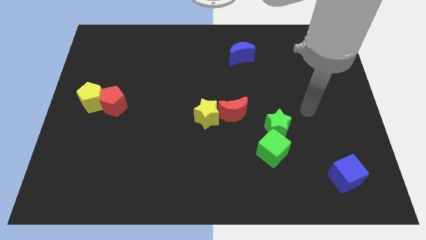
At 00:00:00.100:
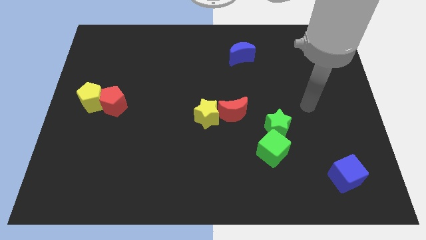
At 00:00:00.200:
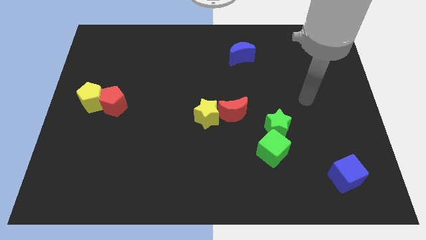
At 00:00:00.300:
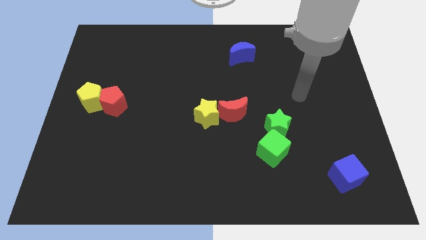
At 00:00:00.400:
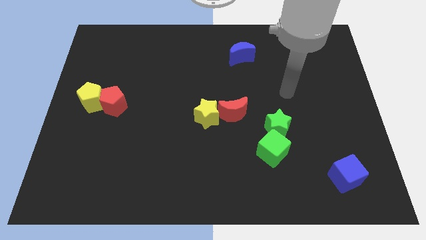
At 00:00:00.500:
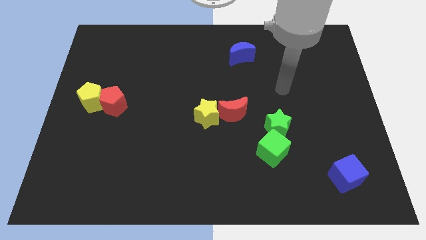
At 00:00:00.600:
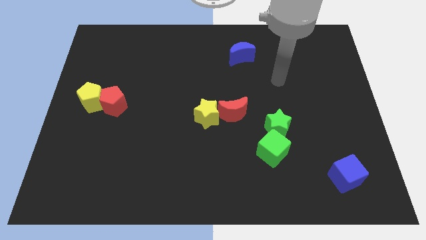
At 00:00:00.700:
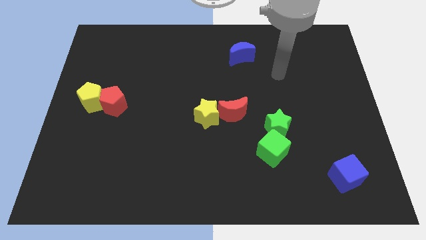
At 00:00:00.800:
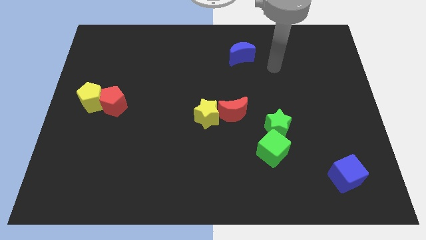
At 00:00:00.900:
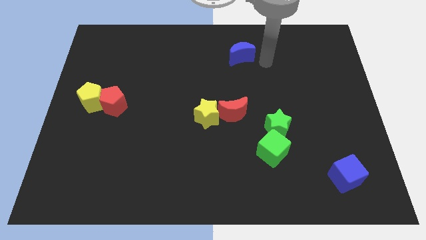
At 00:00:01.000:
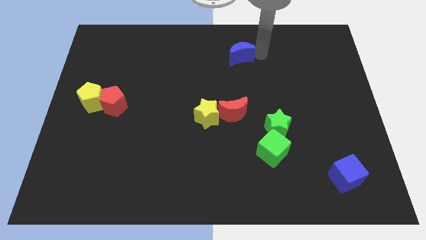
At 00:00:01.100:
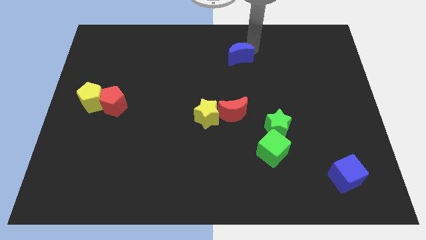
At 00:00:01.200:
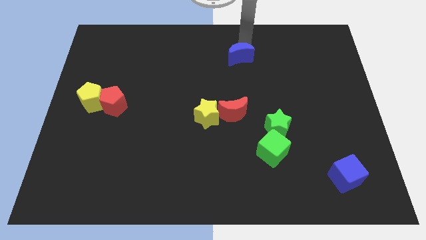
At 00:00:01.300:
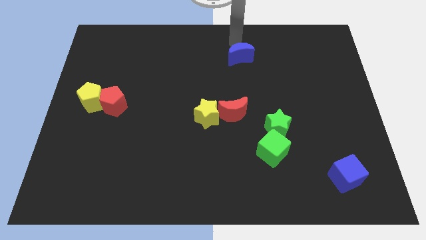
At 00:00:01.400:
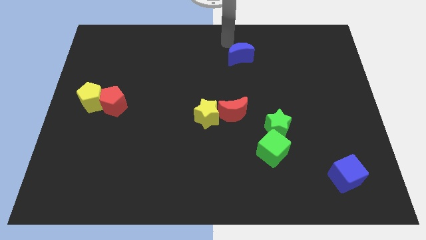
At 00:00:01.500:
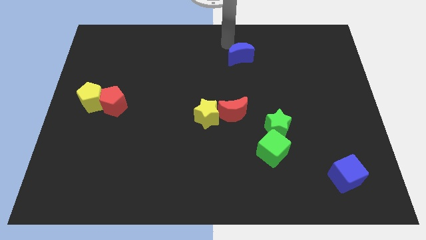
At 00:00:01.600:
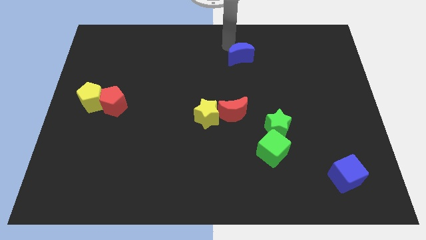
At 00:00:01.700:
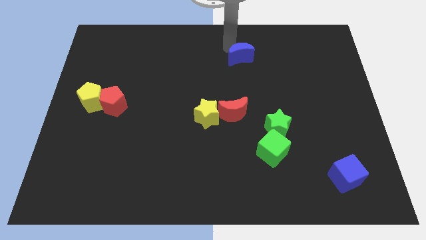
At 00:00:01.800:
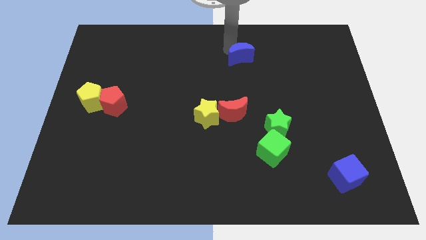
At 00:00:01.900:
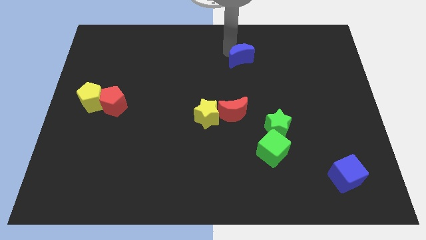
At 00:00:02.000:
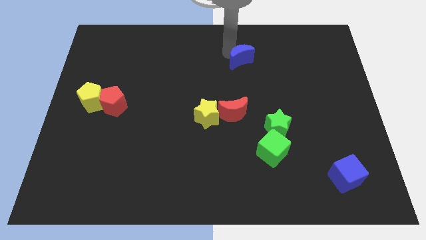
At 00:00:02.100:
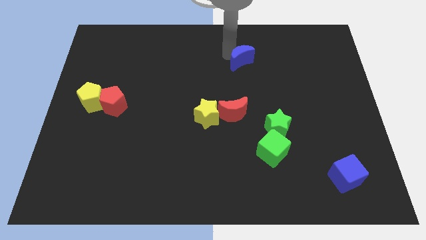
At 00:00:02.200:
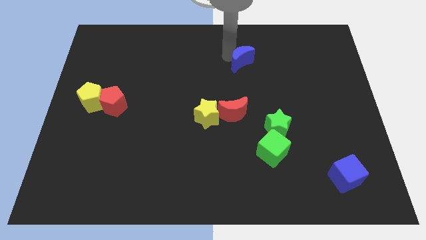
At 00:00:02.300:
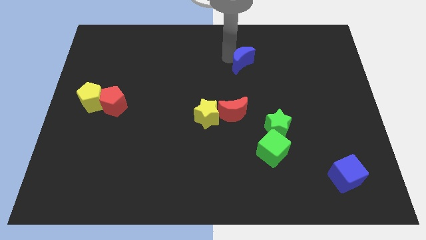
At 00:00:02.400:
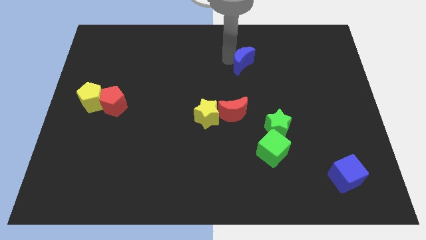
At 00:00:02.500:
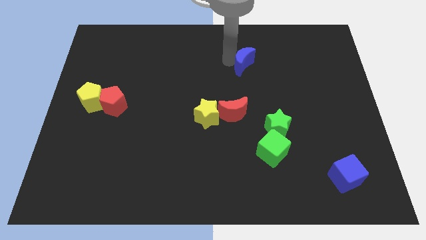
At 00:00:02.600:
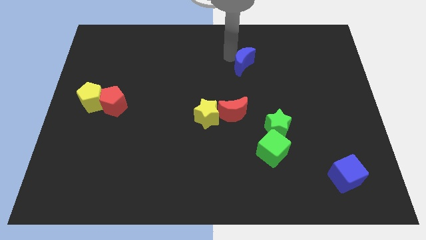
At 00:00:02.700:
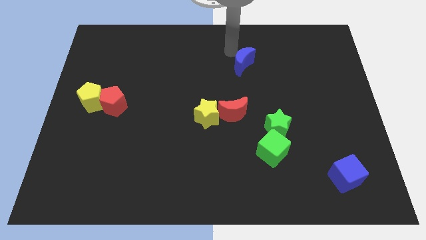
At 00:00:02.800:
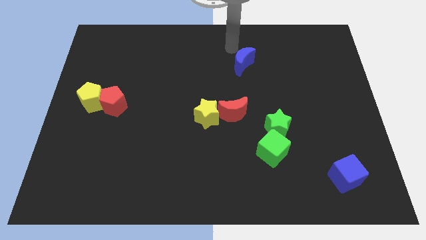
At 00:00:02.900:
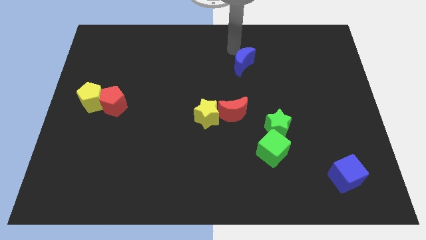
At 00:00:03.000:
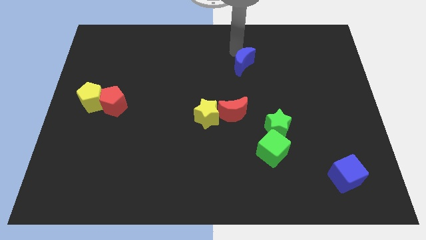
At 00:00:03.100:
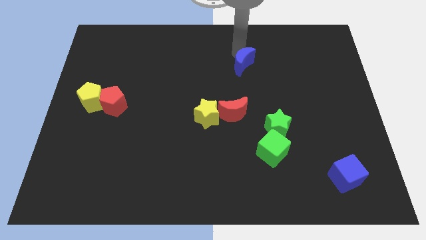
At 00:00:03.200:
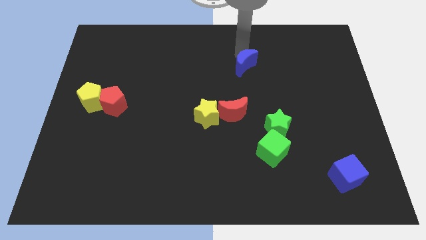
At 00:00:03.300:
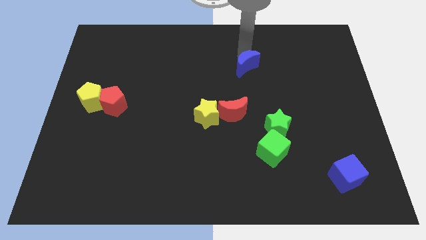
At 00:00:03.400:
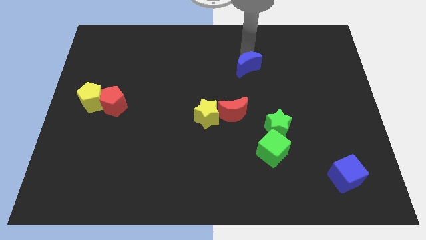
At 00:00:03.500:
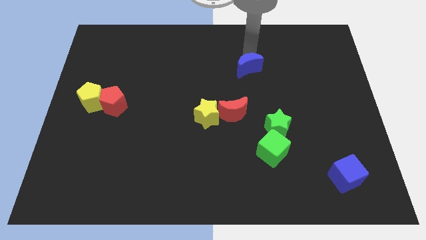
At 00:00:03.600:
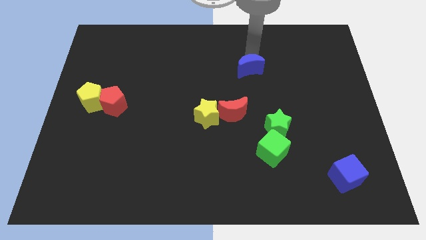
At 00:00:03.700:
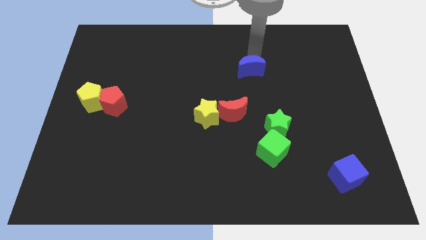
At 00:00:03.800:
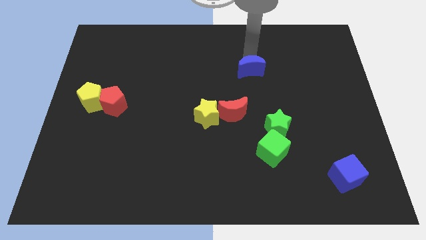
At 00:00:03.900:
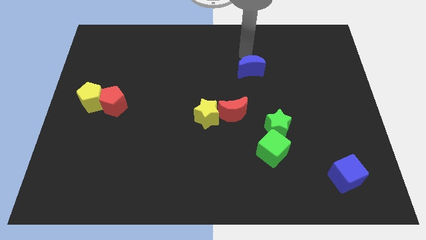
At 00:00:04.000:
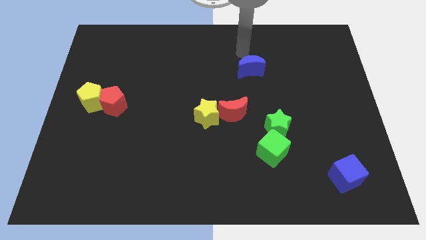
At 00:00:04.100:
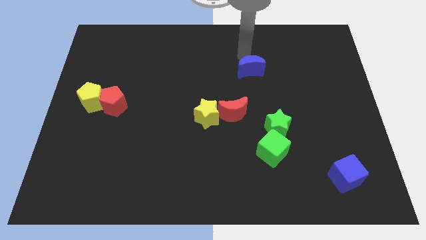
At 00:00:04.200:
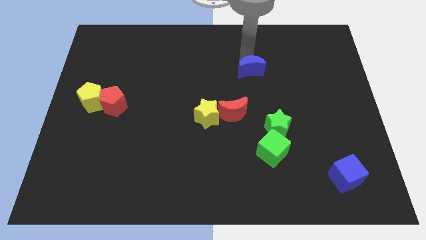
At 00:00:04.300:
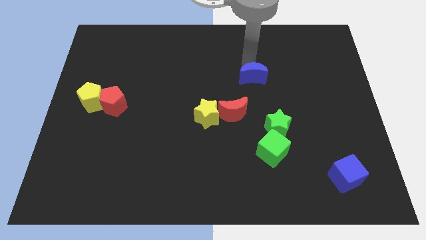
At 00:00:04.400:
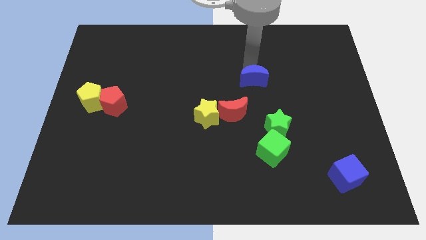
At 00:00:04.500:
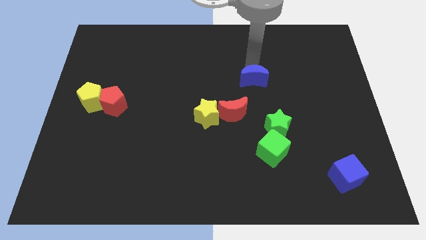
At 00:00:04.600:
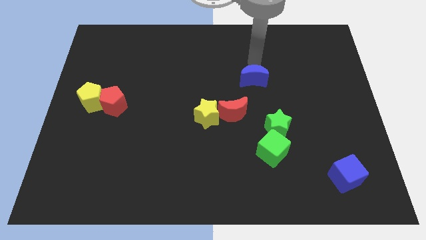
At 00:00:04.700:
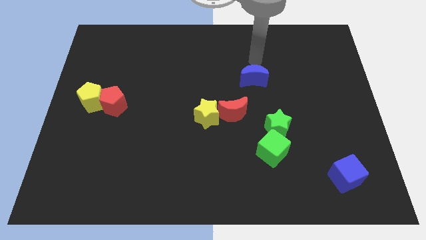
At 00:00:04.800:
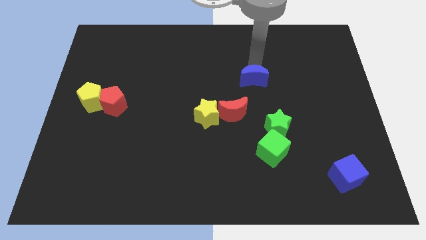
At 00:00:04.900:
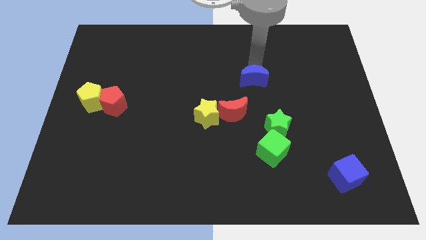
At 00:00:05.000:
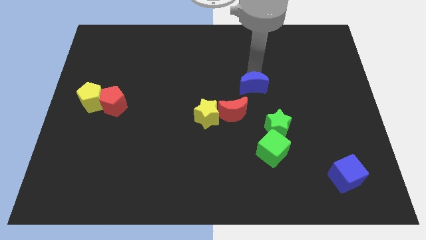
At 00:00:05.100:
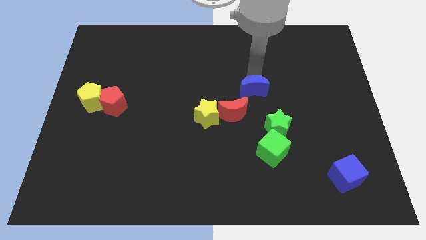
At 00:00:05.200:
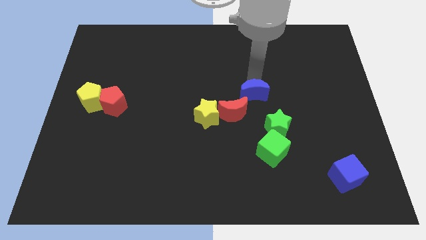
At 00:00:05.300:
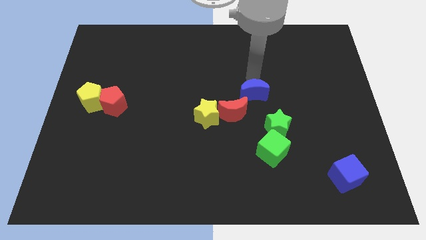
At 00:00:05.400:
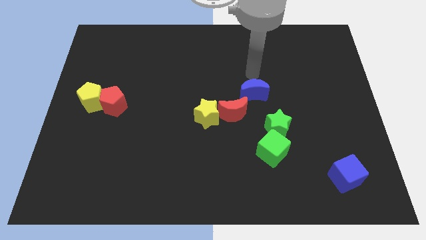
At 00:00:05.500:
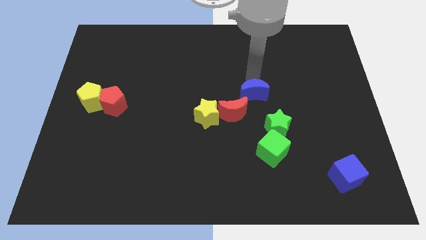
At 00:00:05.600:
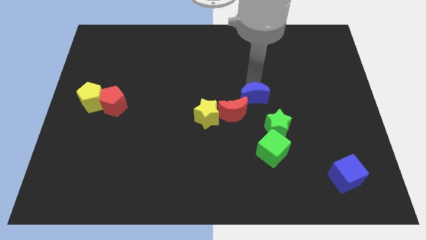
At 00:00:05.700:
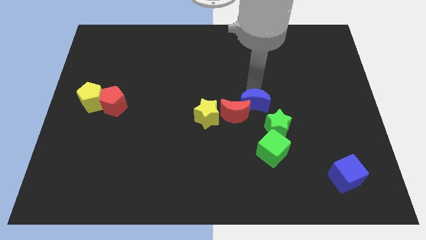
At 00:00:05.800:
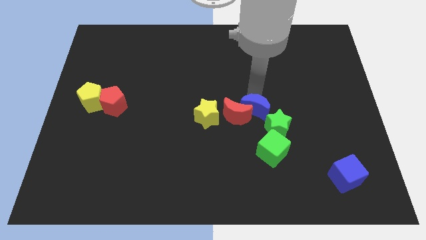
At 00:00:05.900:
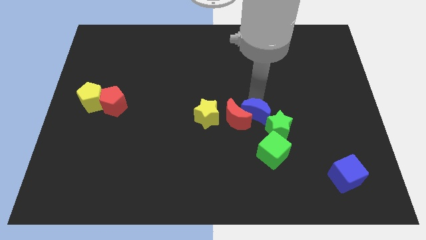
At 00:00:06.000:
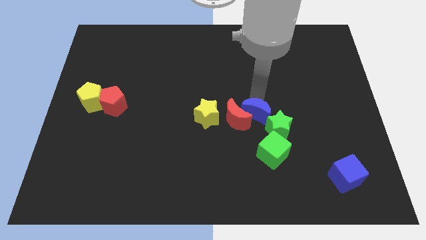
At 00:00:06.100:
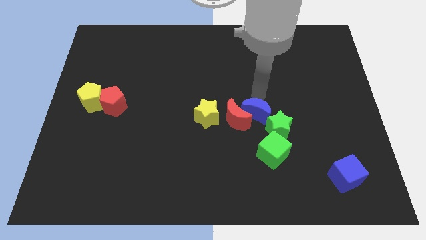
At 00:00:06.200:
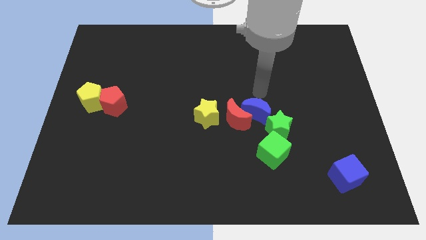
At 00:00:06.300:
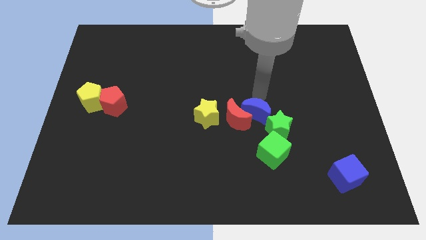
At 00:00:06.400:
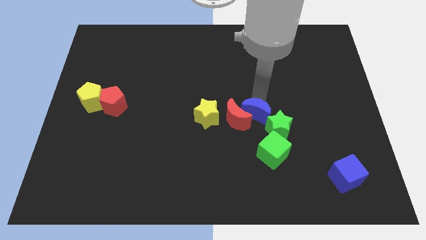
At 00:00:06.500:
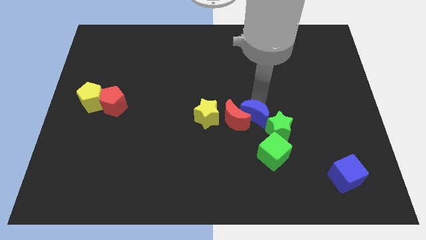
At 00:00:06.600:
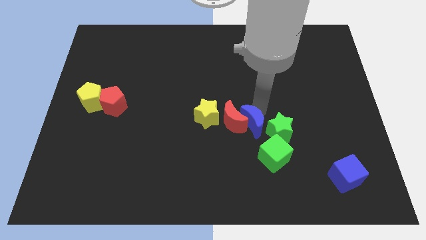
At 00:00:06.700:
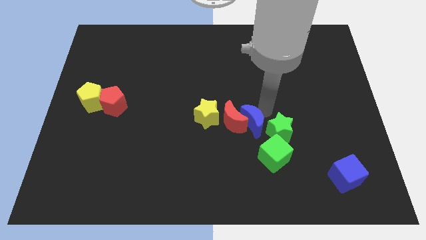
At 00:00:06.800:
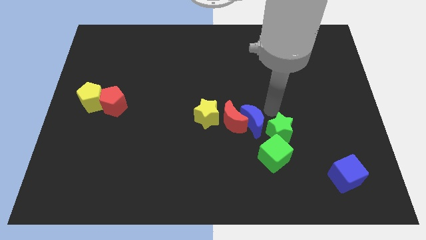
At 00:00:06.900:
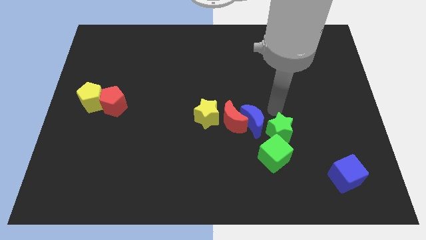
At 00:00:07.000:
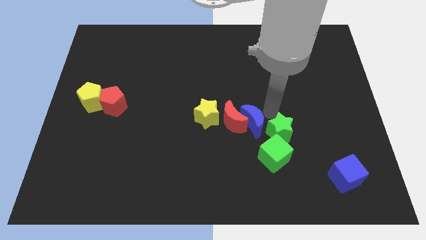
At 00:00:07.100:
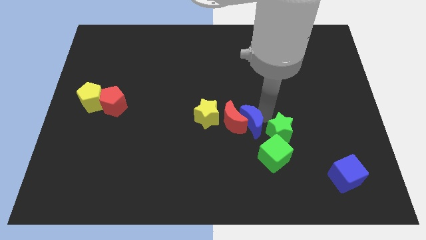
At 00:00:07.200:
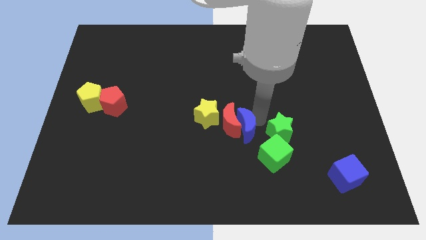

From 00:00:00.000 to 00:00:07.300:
push the blue moon to the bottom right side of the yellow star
